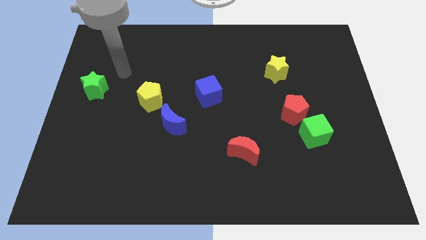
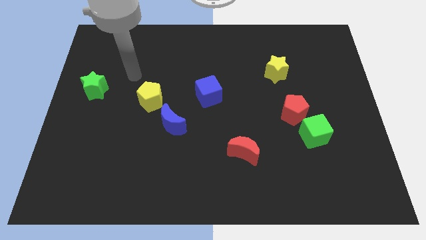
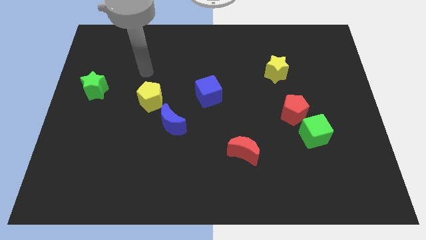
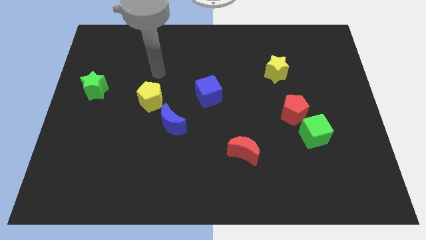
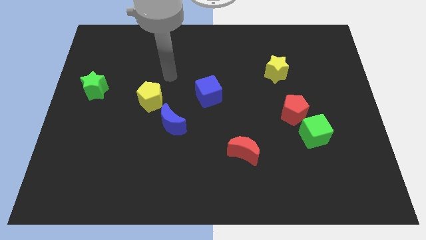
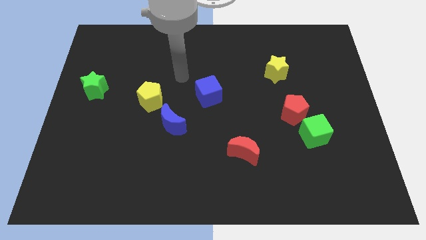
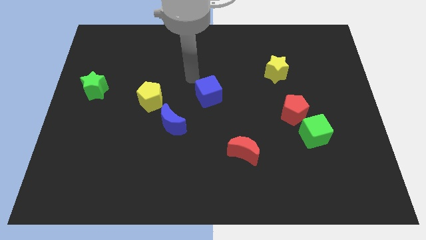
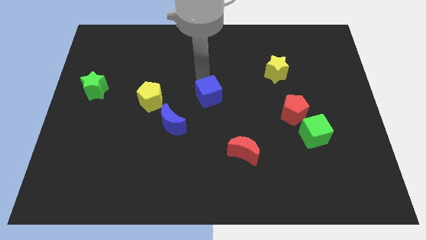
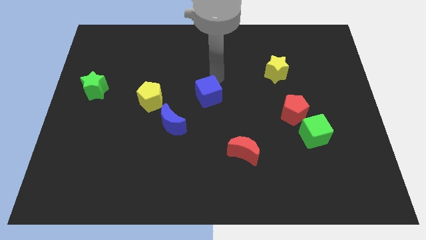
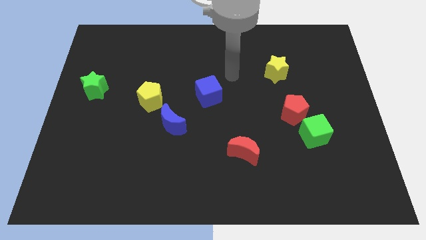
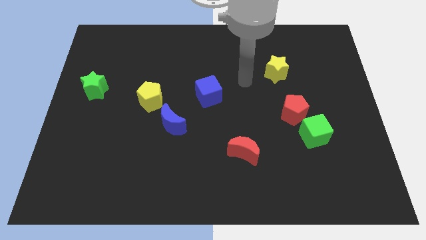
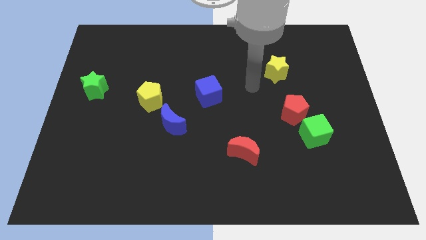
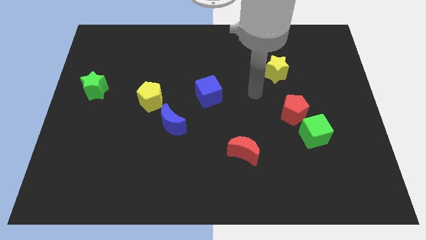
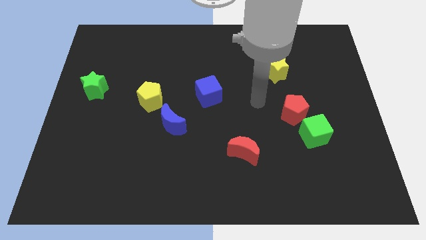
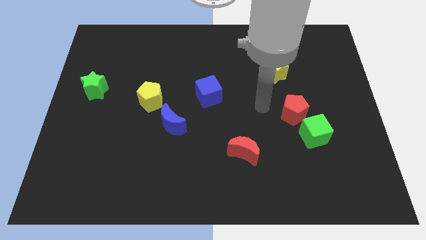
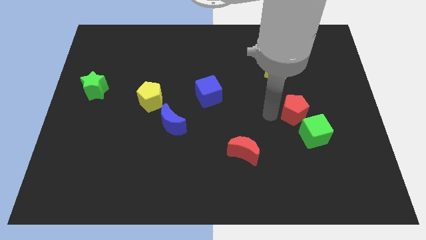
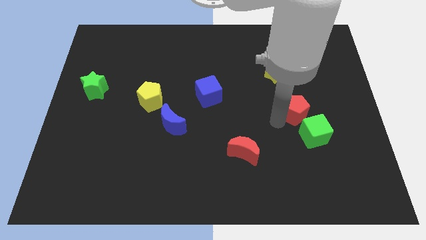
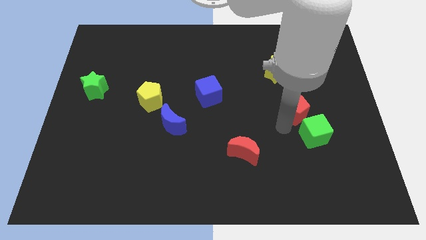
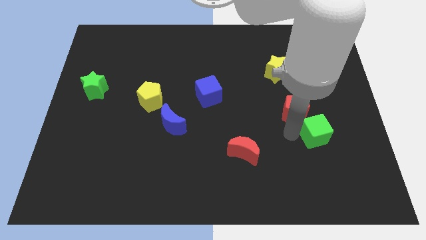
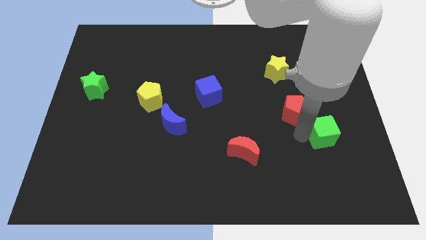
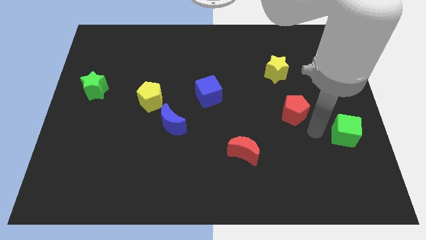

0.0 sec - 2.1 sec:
separate the red pentagon from the green cube

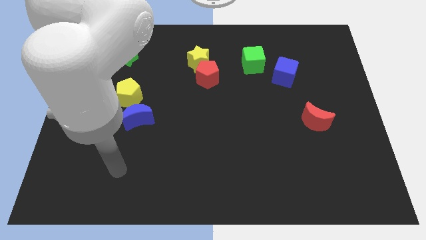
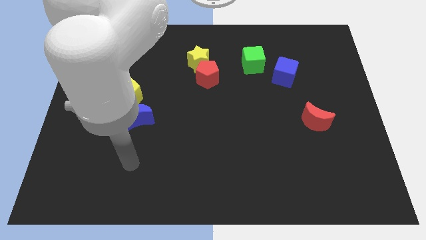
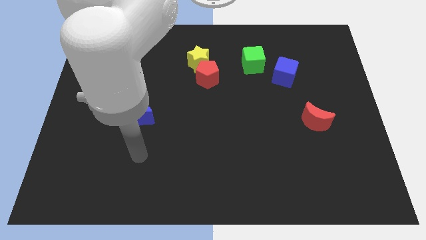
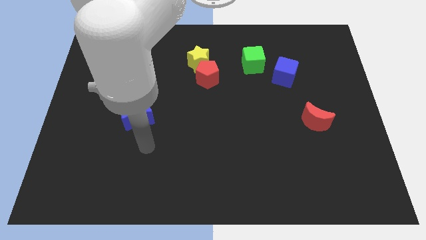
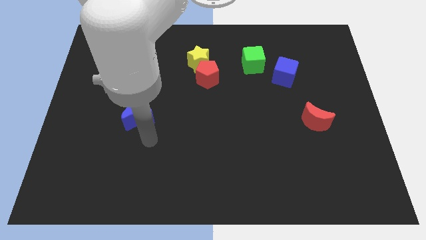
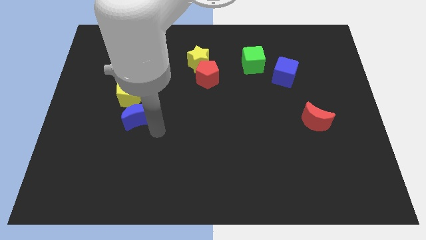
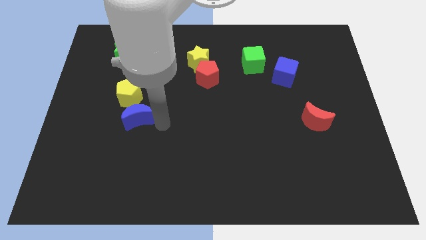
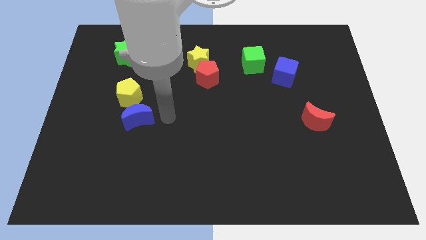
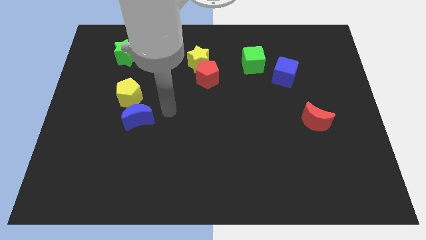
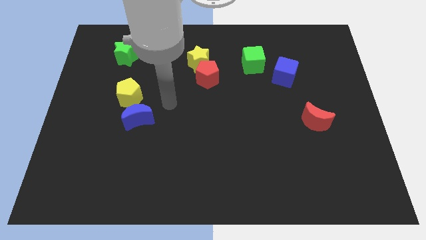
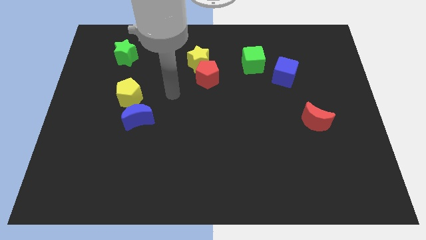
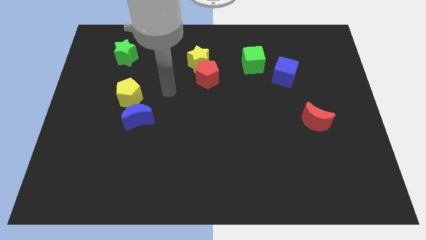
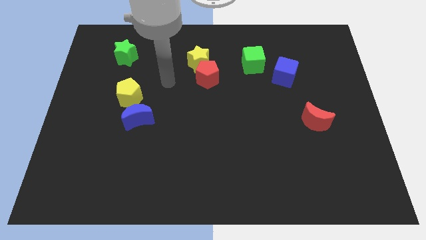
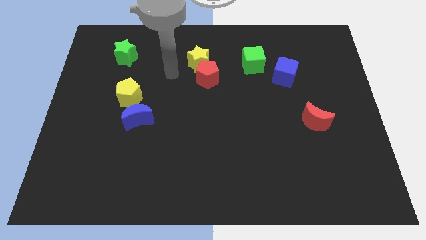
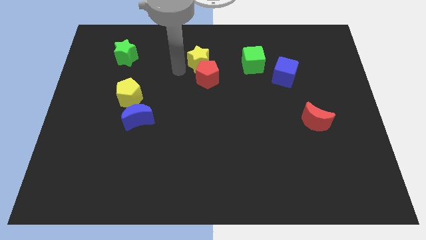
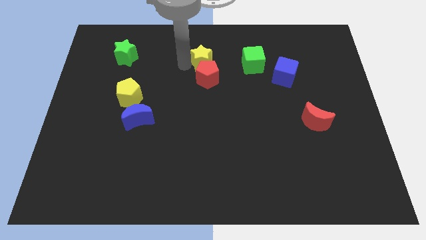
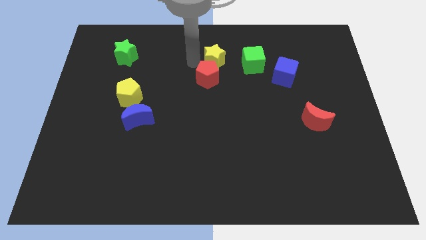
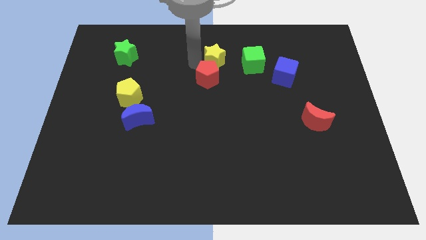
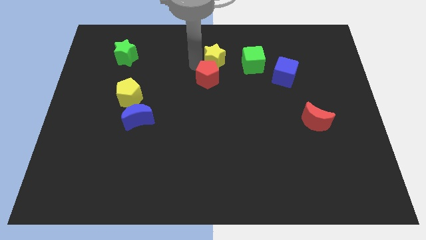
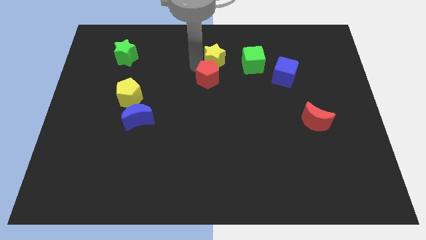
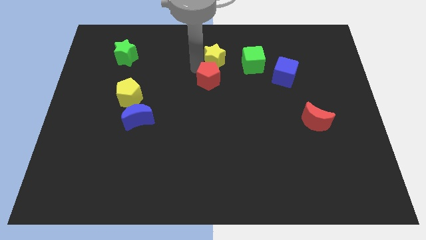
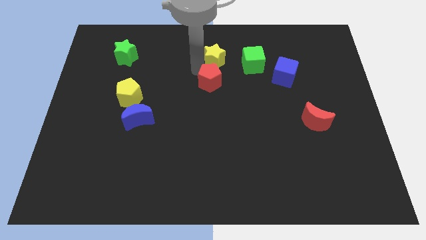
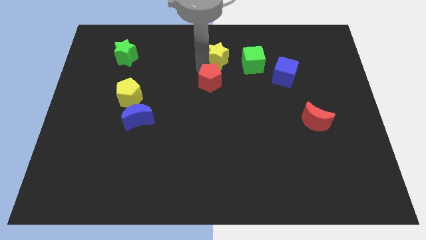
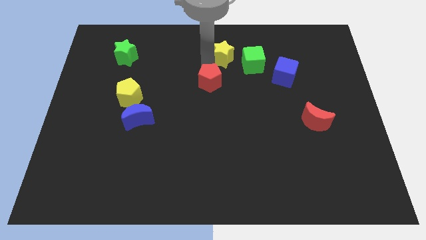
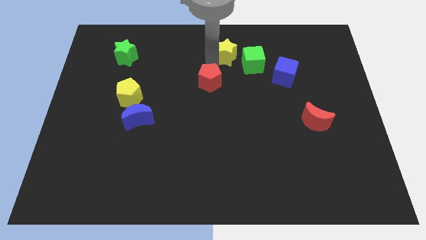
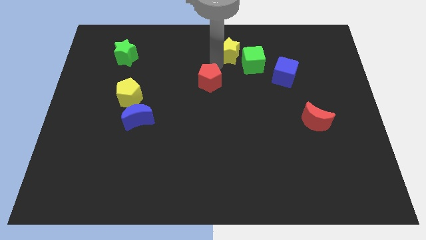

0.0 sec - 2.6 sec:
pull the red pentagon apart from the yellow star

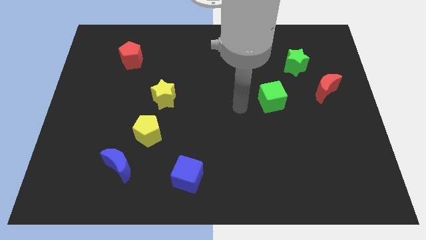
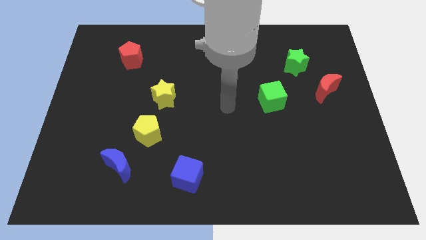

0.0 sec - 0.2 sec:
separate the blue moon from the yellow pentagon

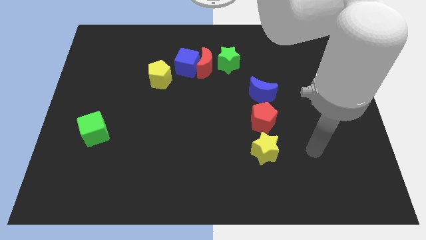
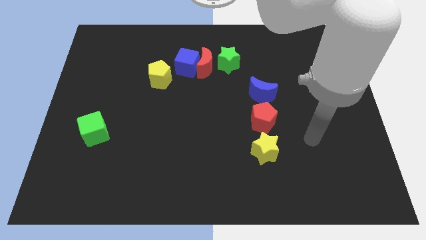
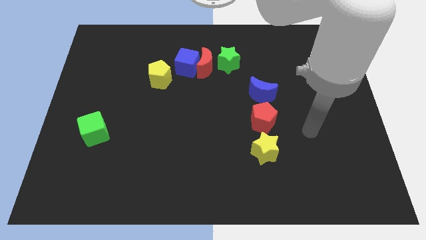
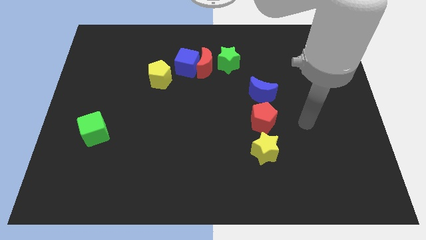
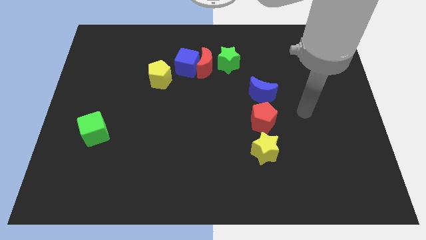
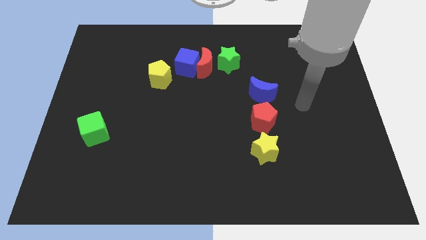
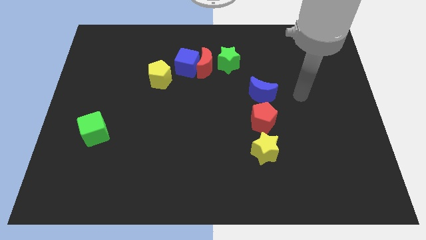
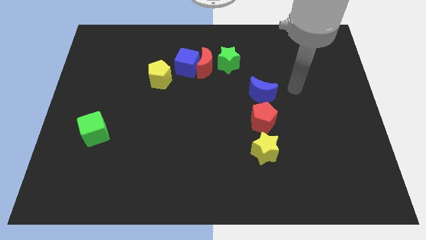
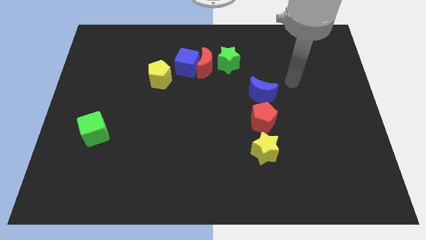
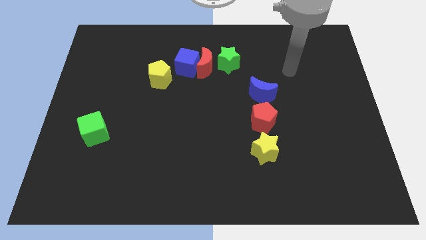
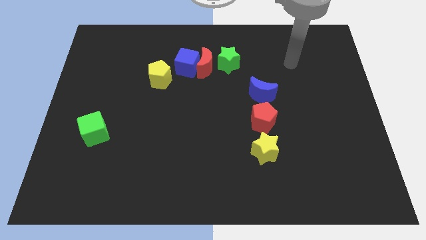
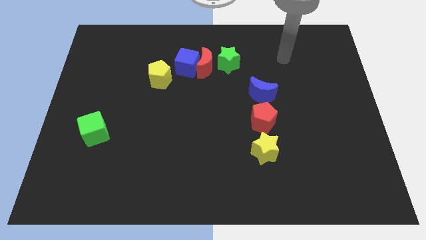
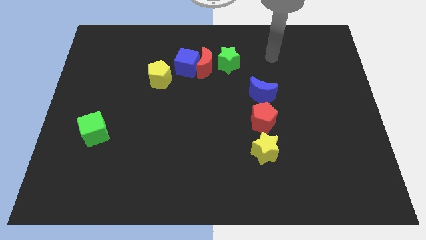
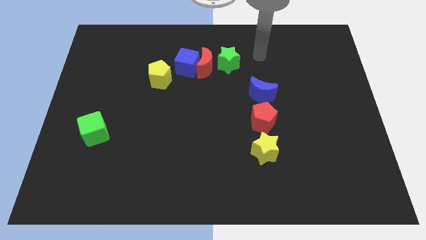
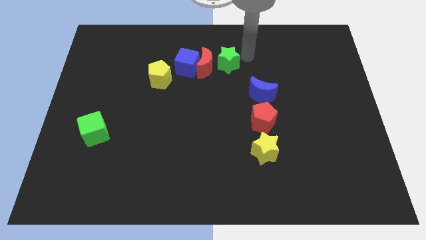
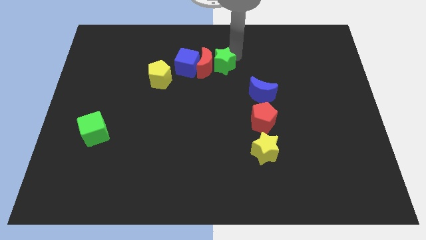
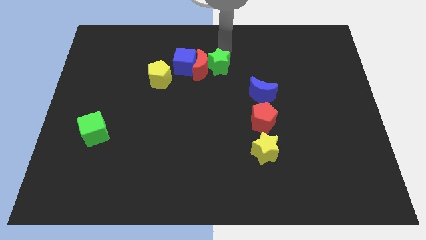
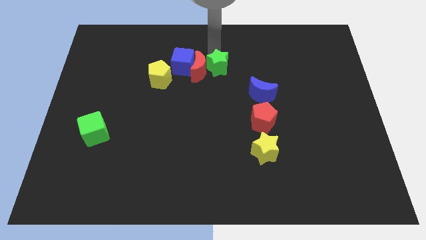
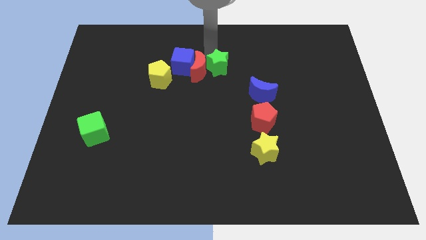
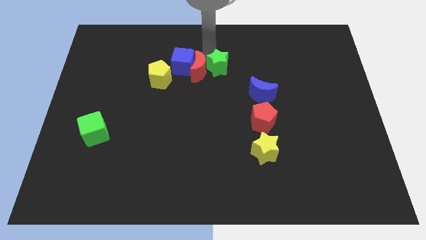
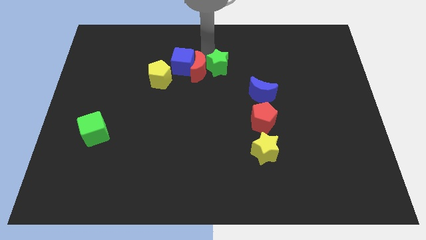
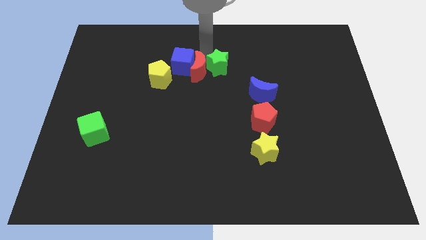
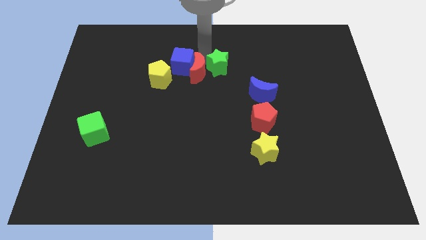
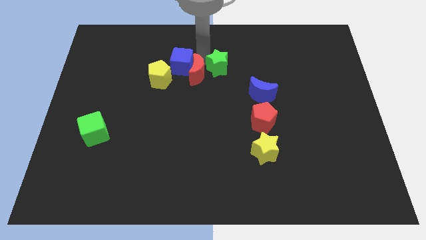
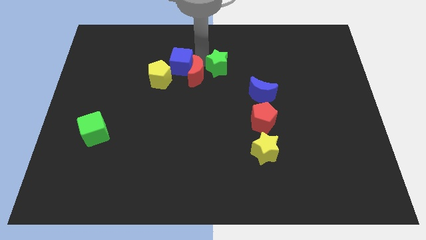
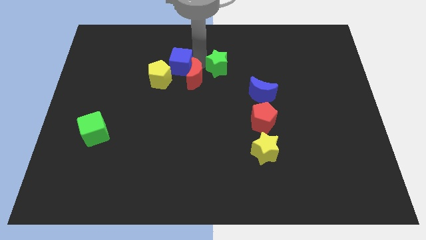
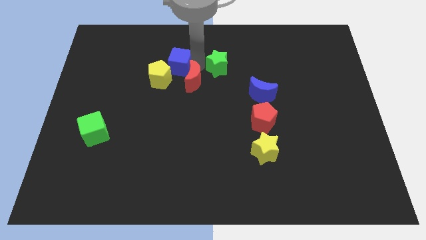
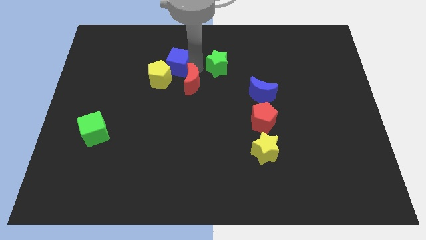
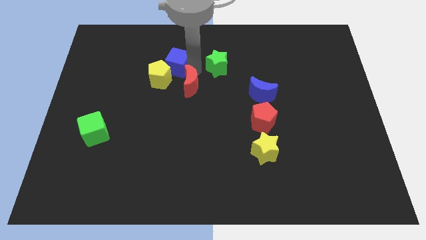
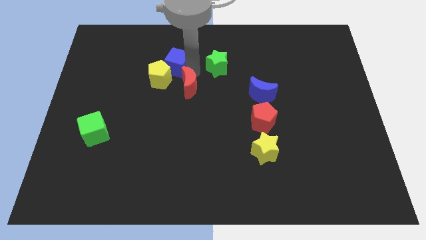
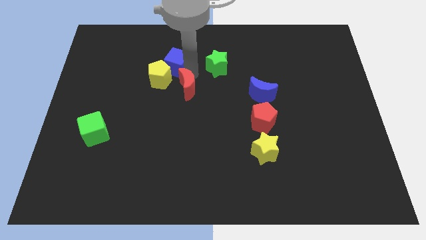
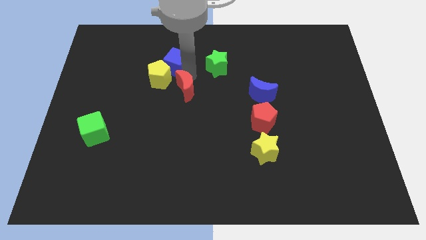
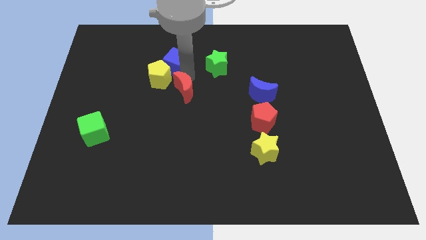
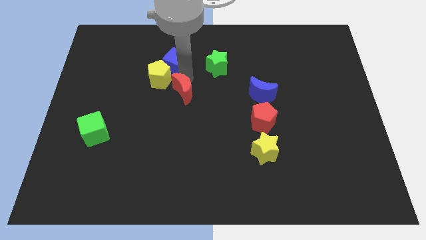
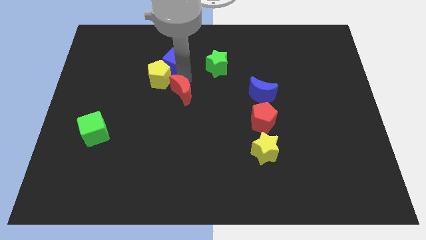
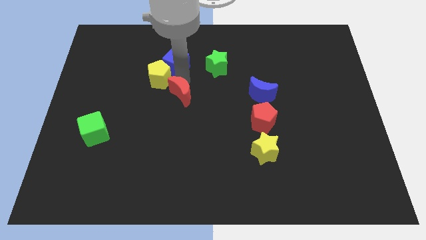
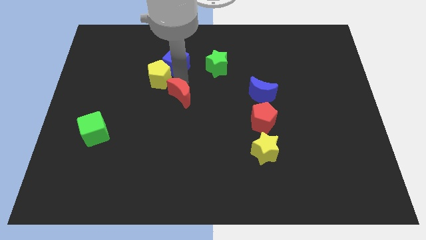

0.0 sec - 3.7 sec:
pull the red moon apart from the blue cube and green star

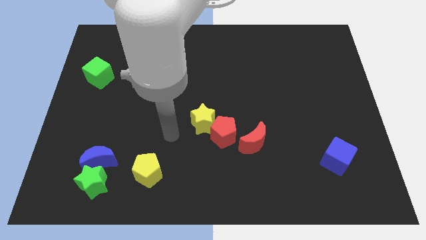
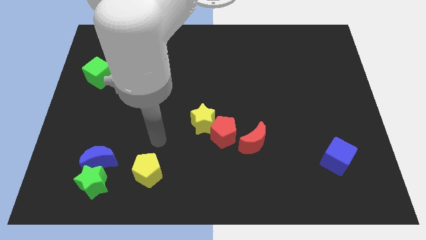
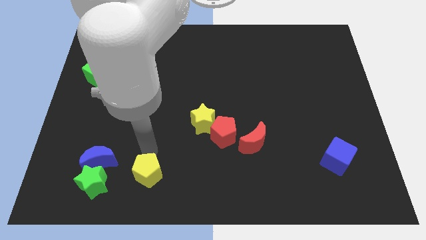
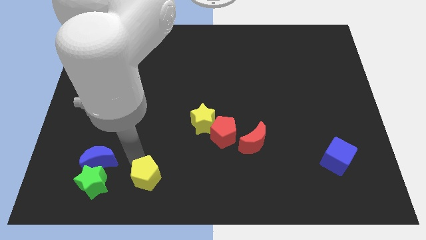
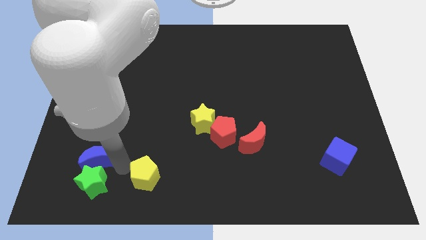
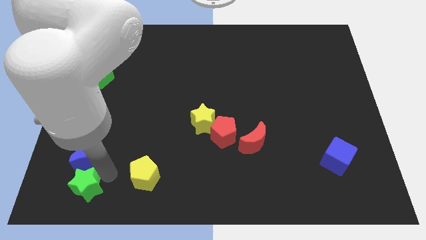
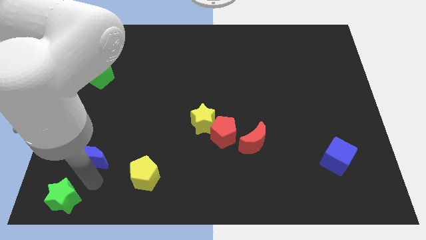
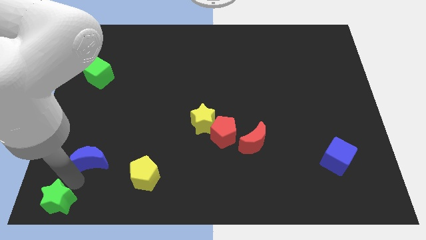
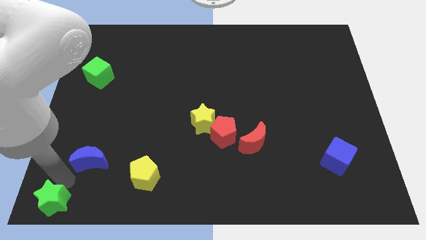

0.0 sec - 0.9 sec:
pull the blue moon apart from the green star
